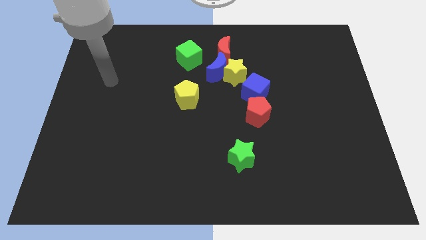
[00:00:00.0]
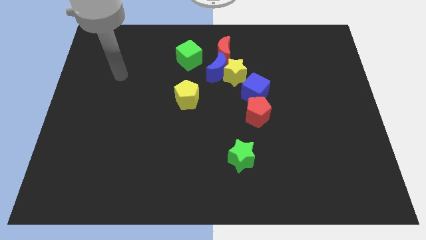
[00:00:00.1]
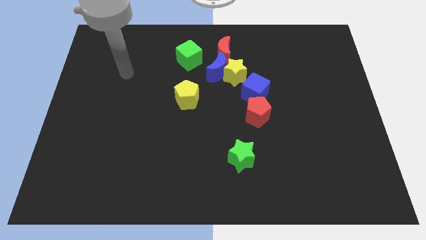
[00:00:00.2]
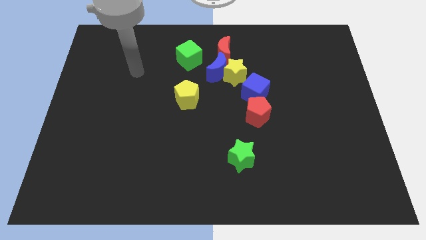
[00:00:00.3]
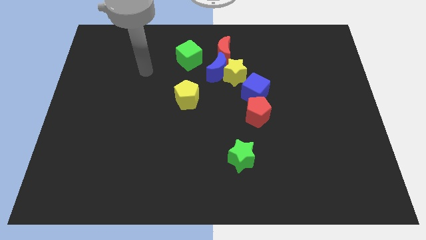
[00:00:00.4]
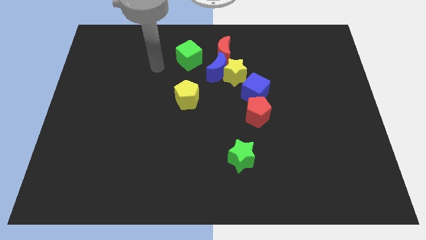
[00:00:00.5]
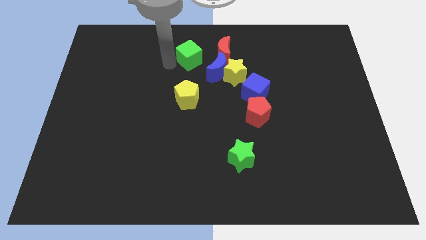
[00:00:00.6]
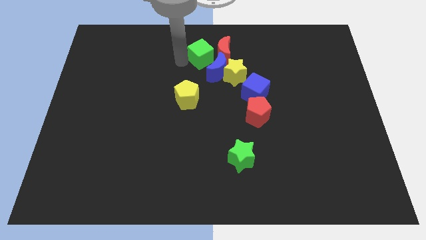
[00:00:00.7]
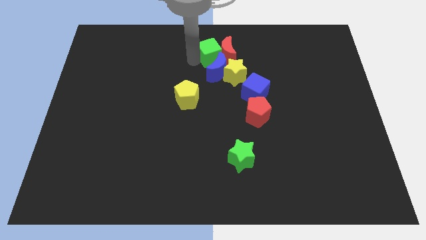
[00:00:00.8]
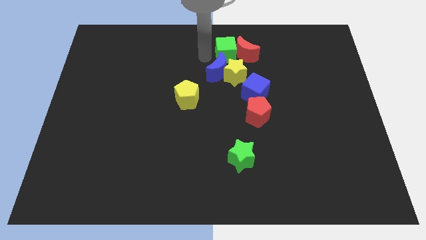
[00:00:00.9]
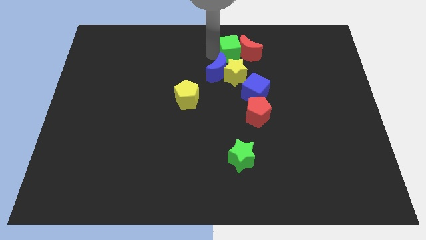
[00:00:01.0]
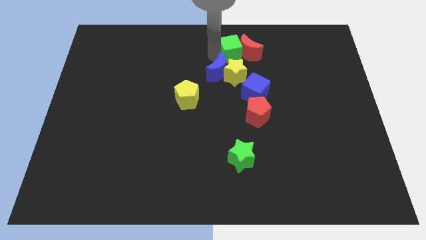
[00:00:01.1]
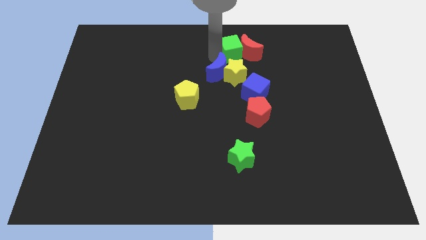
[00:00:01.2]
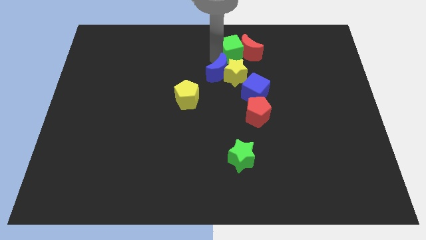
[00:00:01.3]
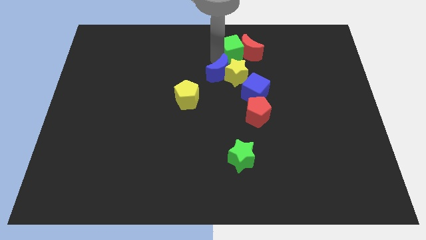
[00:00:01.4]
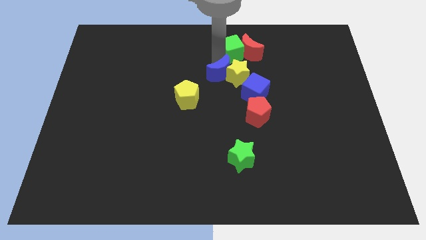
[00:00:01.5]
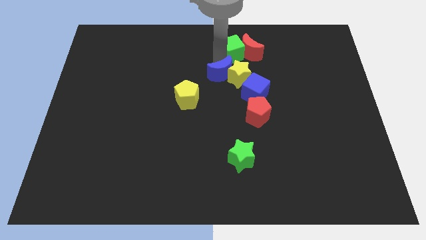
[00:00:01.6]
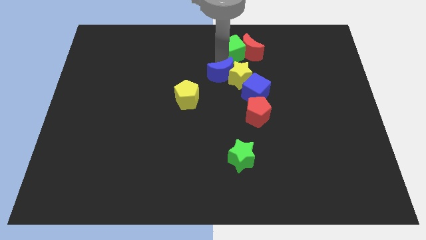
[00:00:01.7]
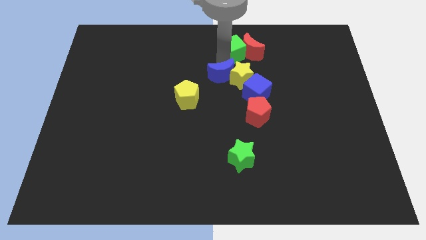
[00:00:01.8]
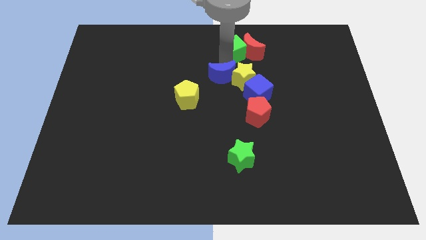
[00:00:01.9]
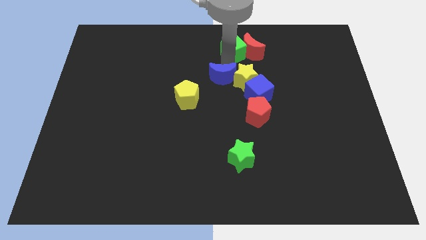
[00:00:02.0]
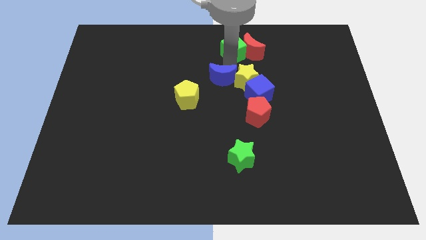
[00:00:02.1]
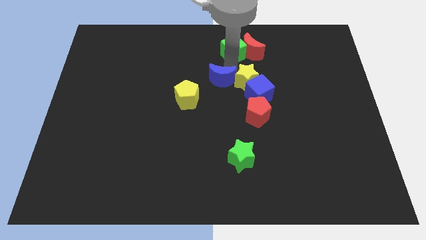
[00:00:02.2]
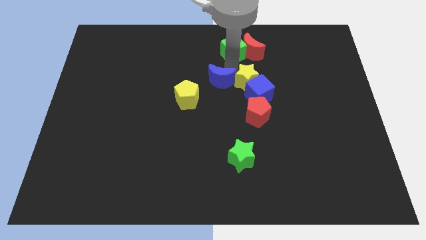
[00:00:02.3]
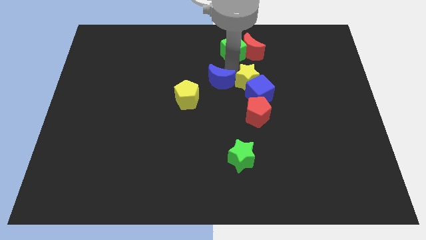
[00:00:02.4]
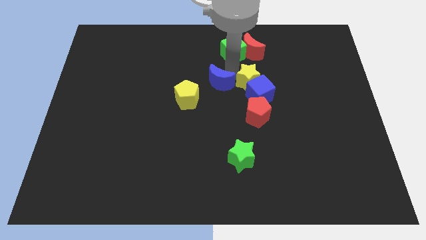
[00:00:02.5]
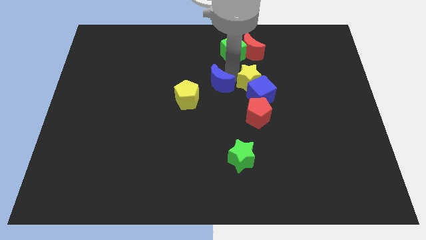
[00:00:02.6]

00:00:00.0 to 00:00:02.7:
separate the blue moon from the group

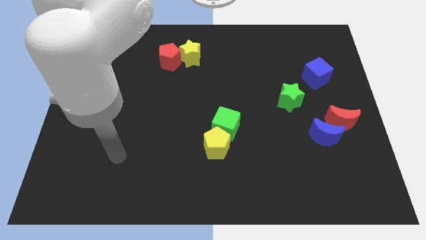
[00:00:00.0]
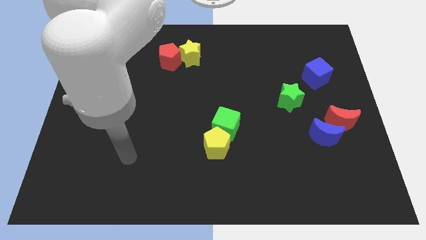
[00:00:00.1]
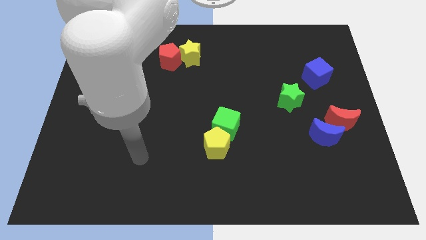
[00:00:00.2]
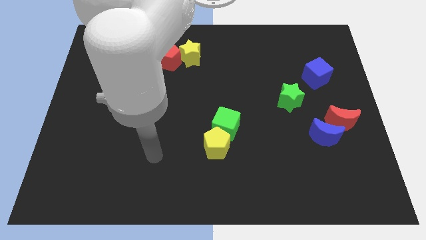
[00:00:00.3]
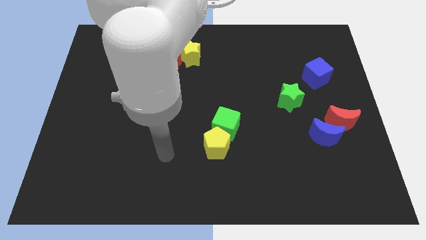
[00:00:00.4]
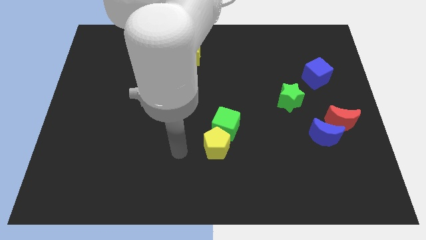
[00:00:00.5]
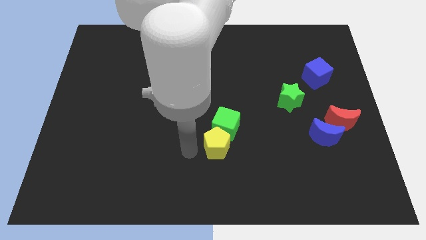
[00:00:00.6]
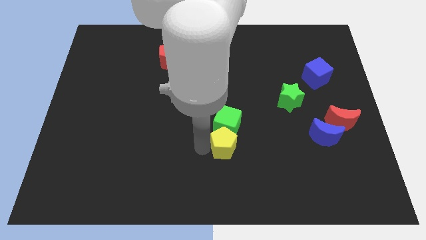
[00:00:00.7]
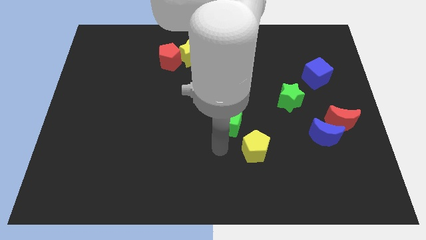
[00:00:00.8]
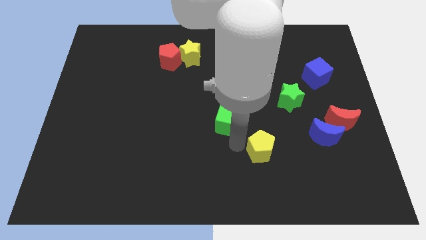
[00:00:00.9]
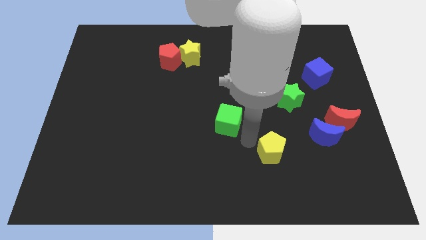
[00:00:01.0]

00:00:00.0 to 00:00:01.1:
move the green cube away from the yellow pentagon

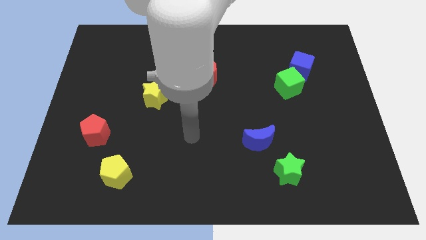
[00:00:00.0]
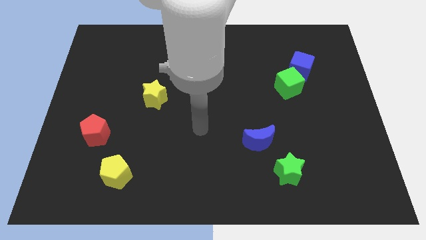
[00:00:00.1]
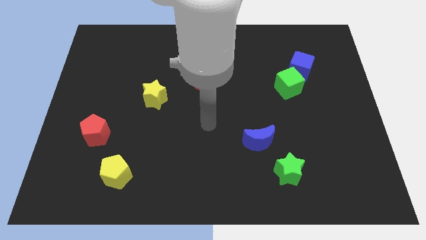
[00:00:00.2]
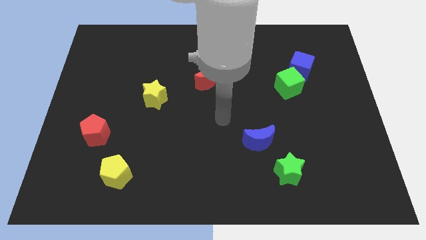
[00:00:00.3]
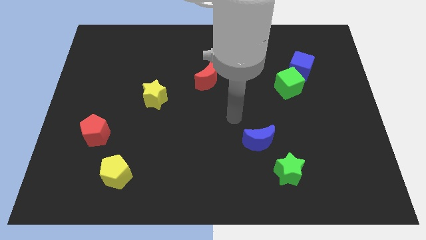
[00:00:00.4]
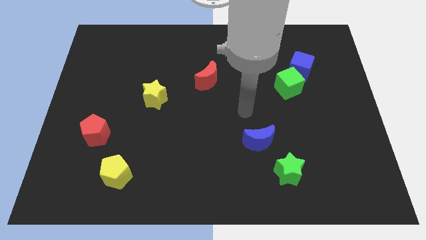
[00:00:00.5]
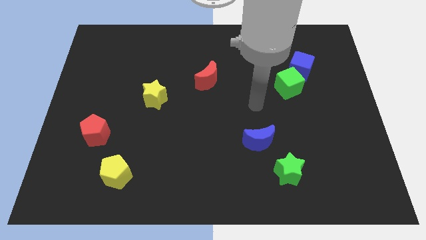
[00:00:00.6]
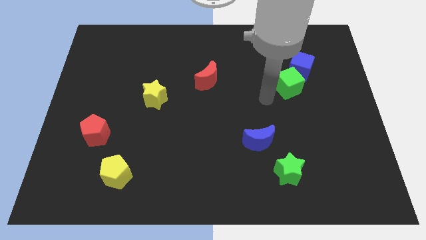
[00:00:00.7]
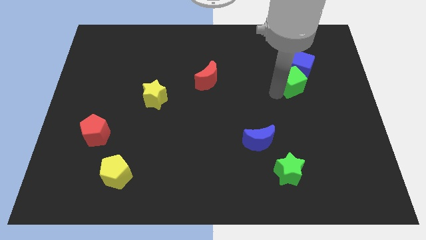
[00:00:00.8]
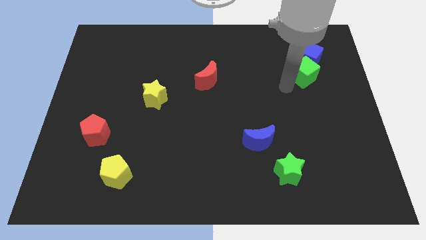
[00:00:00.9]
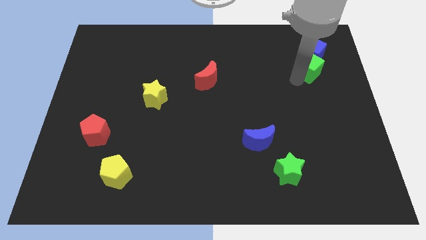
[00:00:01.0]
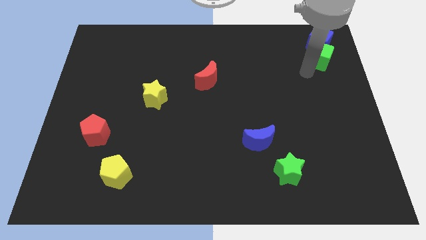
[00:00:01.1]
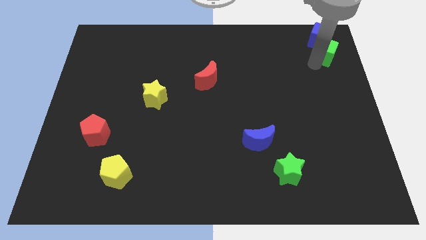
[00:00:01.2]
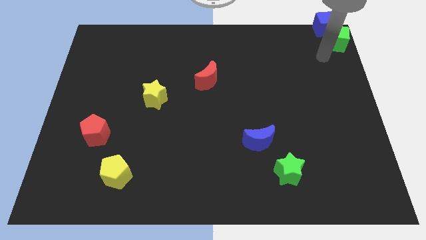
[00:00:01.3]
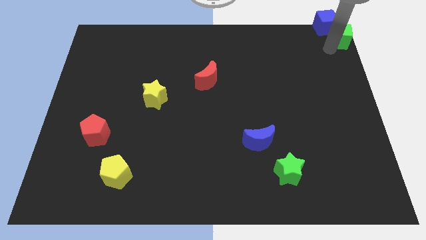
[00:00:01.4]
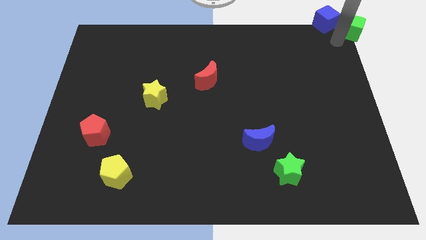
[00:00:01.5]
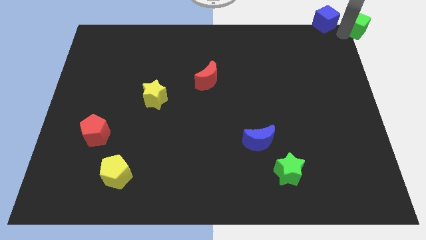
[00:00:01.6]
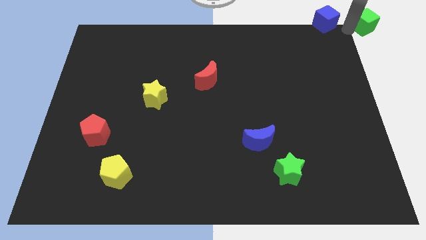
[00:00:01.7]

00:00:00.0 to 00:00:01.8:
pull the blue cube apart from the green cube

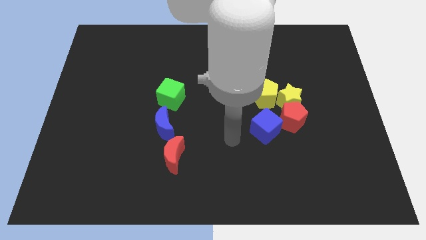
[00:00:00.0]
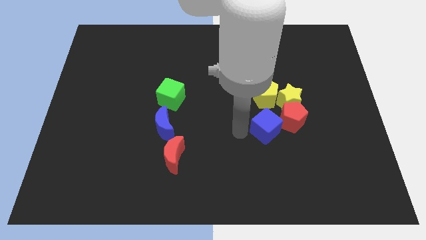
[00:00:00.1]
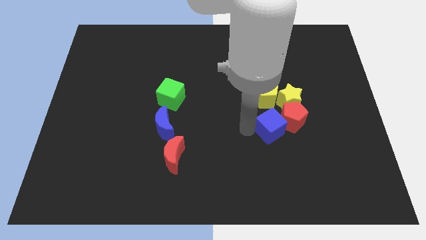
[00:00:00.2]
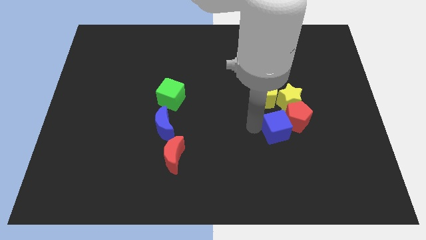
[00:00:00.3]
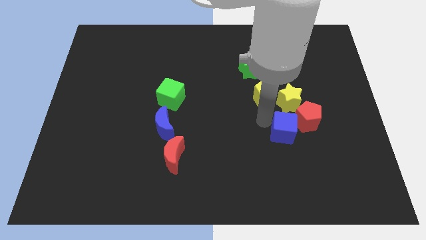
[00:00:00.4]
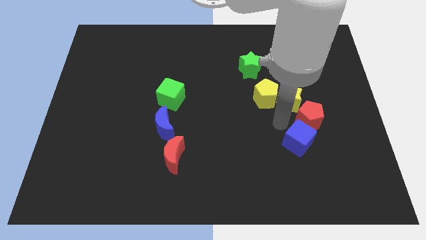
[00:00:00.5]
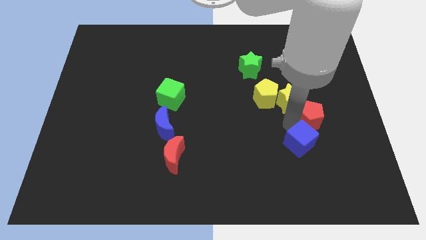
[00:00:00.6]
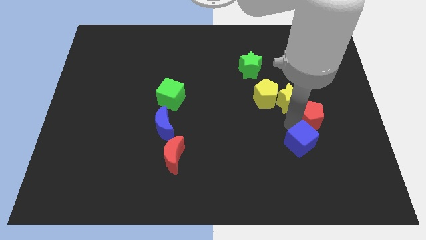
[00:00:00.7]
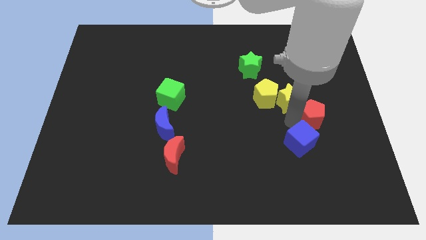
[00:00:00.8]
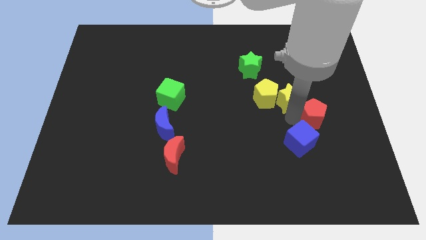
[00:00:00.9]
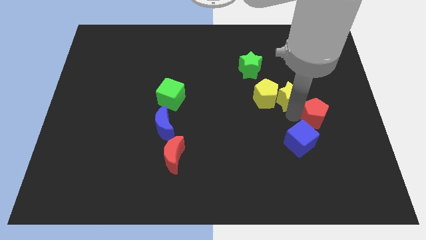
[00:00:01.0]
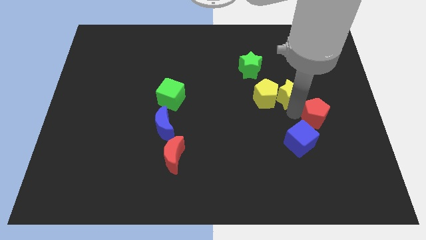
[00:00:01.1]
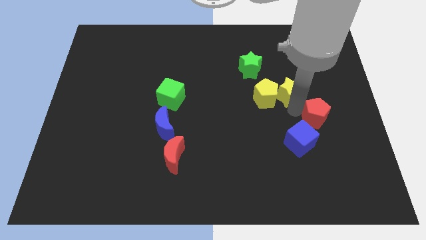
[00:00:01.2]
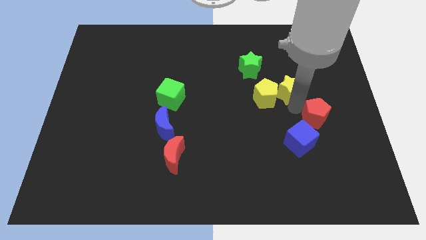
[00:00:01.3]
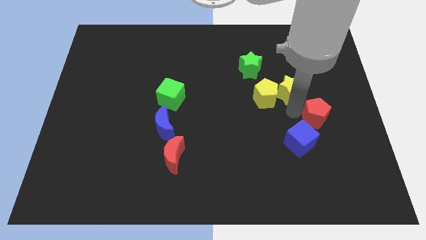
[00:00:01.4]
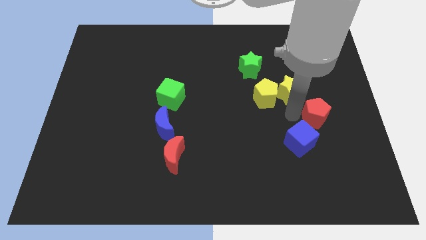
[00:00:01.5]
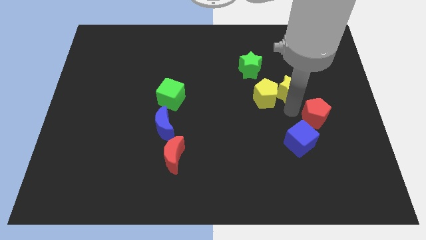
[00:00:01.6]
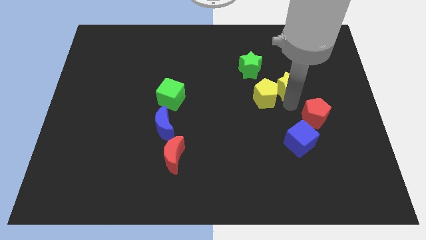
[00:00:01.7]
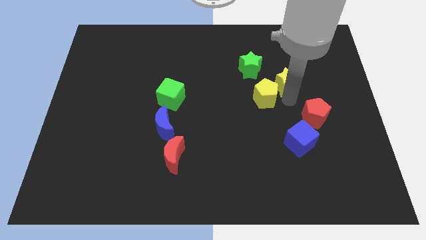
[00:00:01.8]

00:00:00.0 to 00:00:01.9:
move the yellow star away from the red pentagon, yellow pentagon, and blue cube

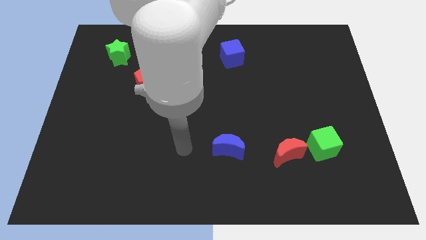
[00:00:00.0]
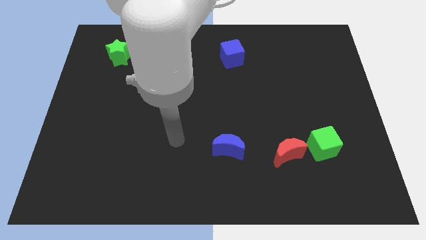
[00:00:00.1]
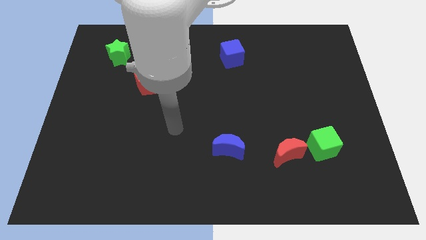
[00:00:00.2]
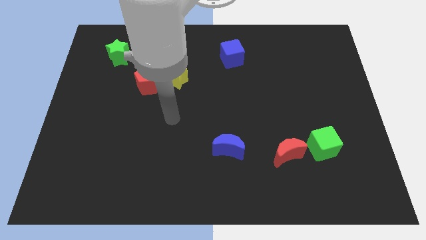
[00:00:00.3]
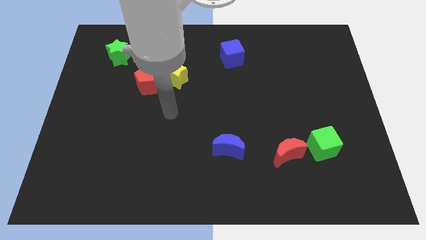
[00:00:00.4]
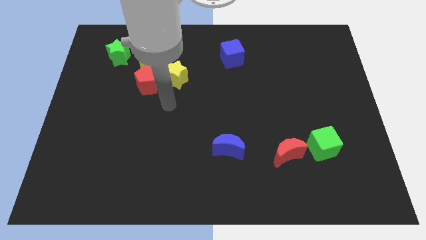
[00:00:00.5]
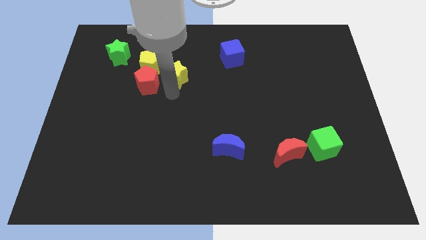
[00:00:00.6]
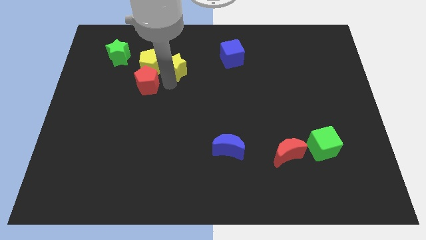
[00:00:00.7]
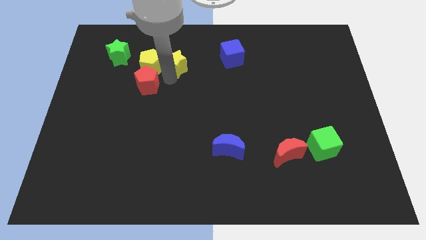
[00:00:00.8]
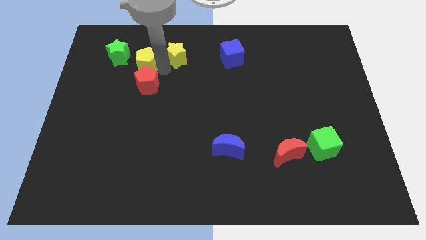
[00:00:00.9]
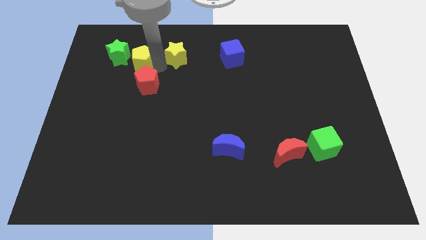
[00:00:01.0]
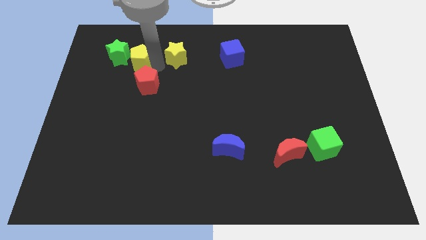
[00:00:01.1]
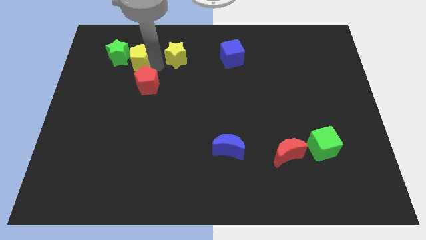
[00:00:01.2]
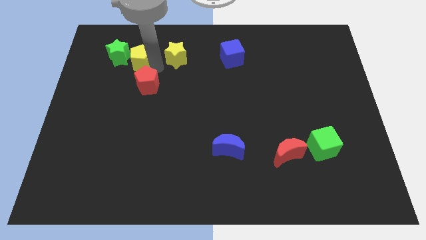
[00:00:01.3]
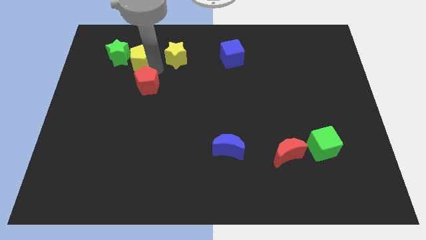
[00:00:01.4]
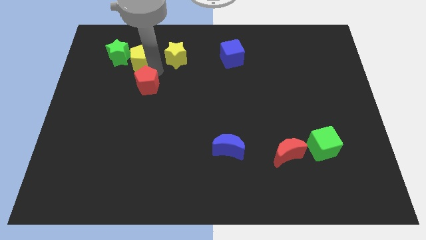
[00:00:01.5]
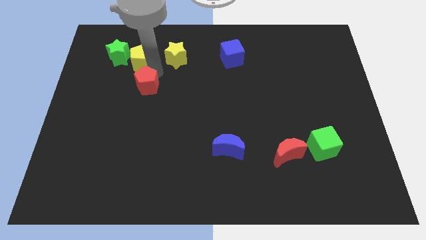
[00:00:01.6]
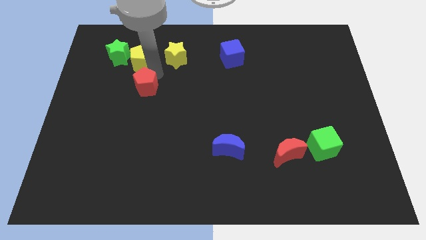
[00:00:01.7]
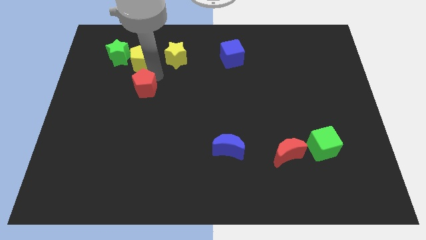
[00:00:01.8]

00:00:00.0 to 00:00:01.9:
move the red pentagon away from the yellow pentagon and yellow star
